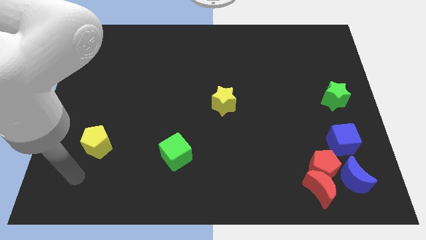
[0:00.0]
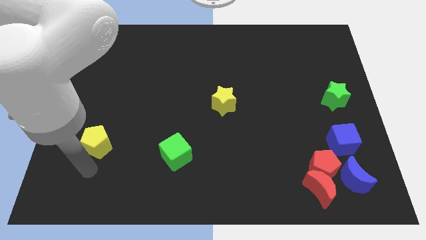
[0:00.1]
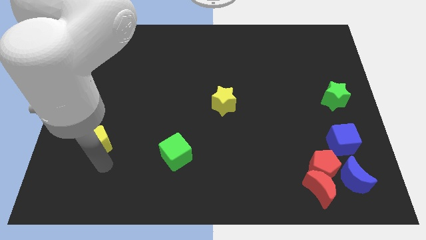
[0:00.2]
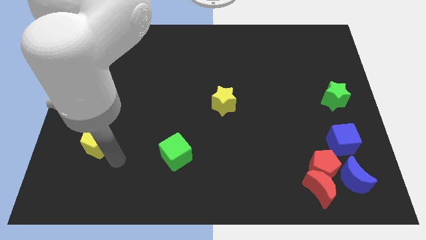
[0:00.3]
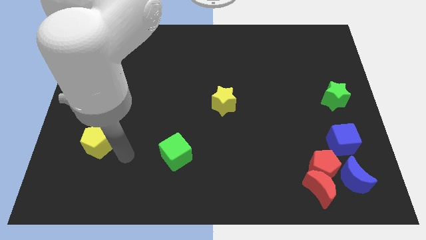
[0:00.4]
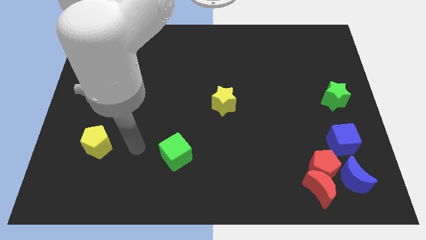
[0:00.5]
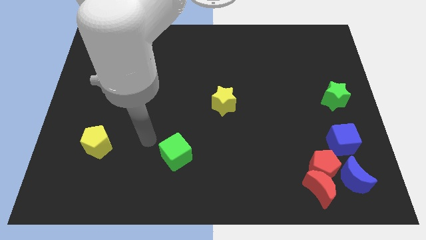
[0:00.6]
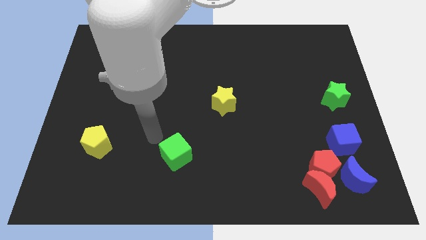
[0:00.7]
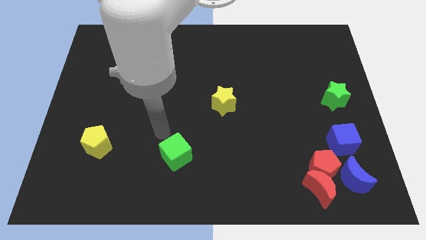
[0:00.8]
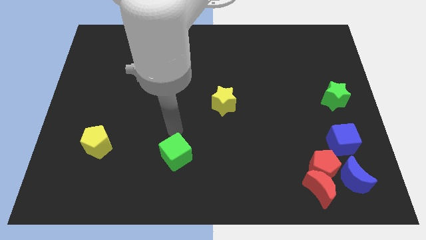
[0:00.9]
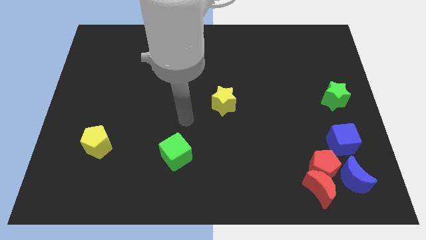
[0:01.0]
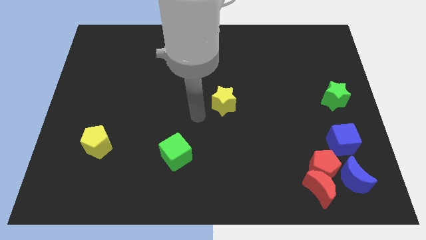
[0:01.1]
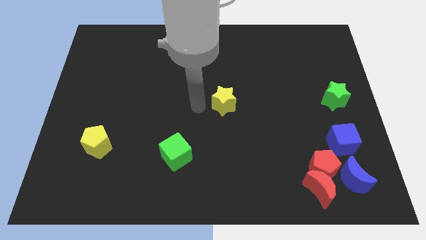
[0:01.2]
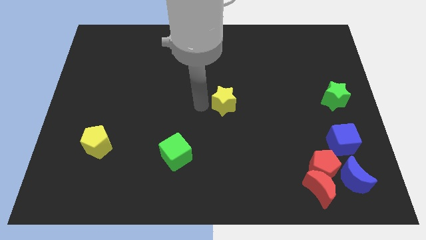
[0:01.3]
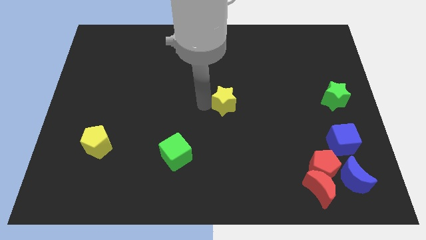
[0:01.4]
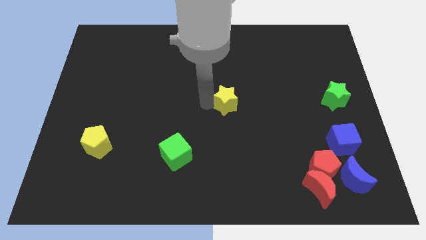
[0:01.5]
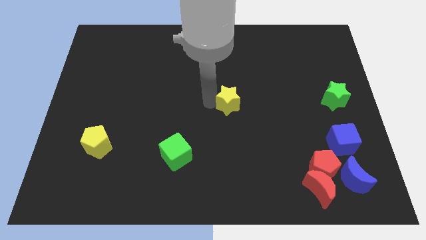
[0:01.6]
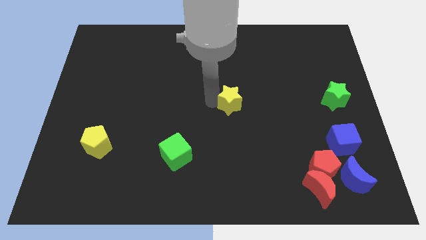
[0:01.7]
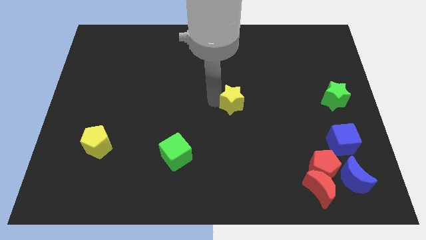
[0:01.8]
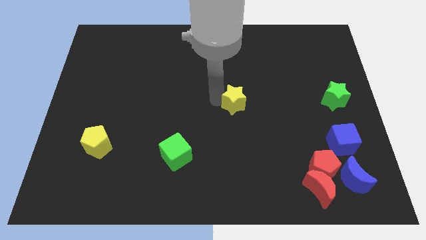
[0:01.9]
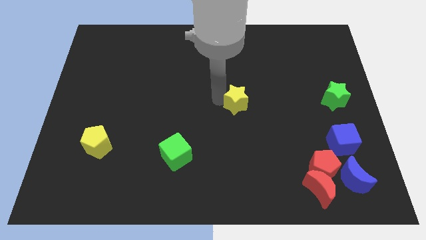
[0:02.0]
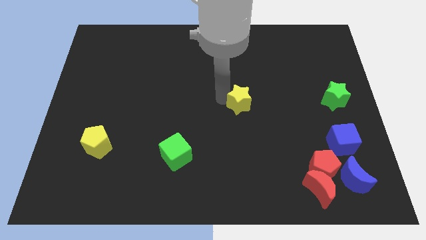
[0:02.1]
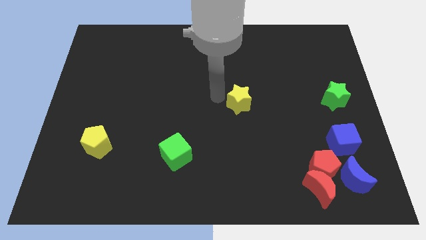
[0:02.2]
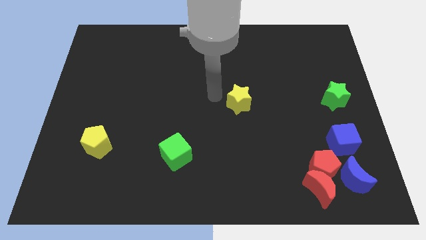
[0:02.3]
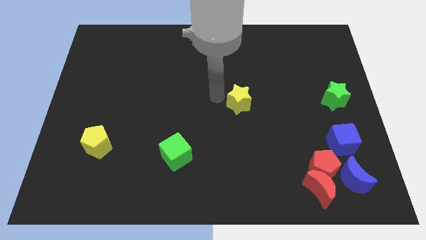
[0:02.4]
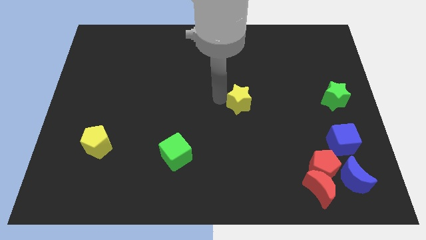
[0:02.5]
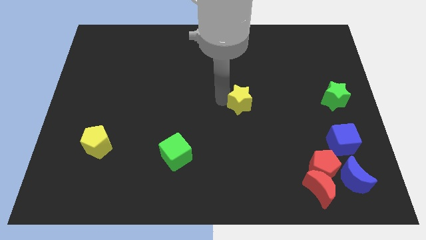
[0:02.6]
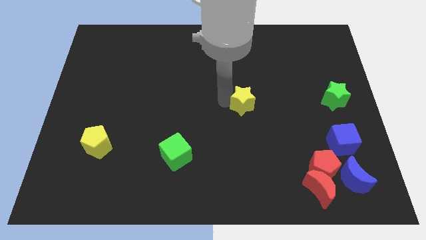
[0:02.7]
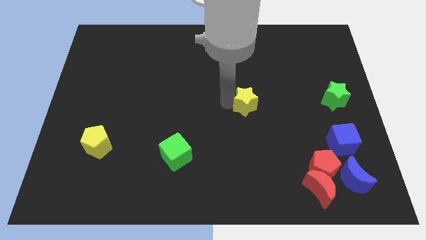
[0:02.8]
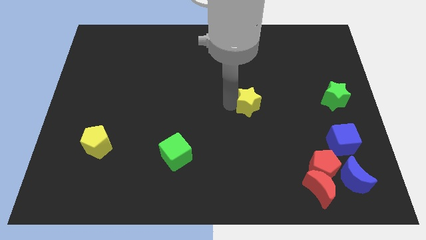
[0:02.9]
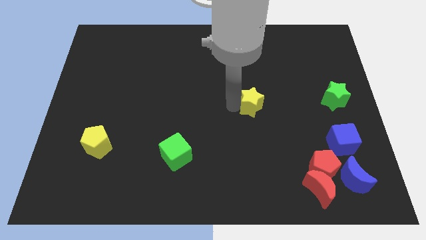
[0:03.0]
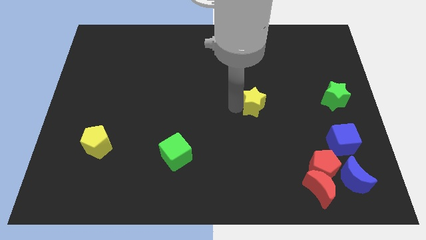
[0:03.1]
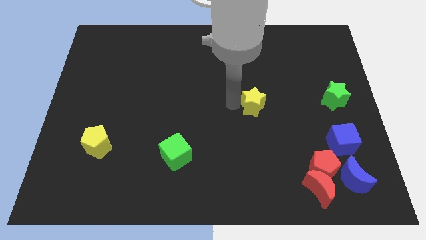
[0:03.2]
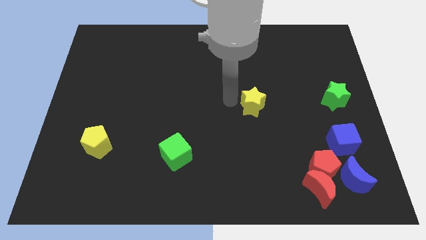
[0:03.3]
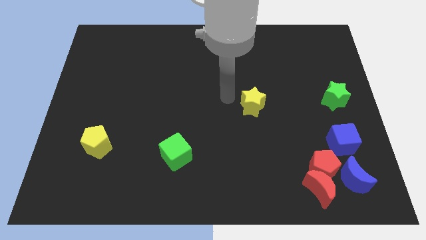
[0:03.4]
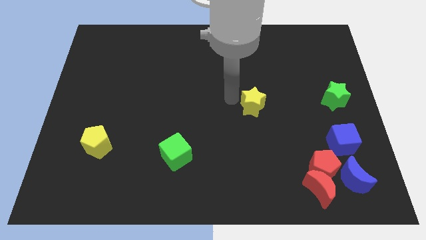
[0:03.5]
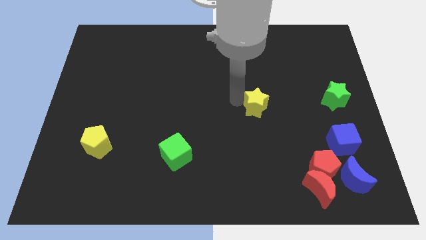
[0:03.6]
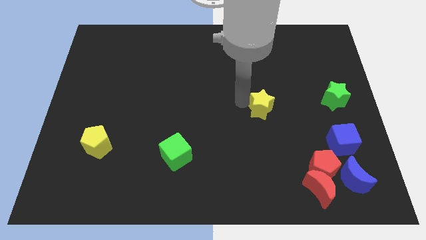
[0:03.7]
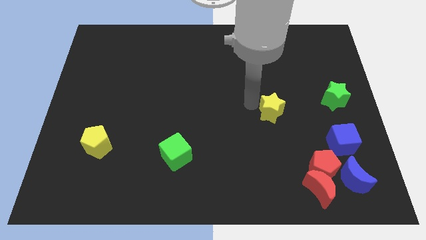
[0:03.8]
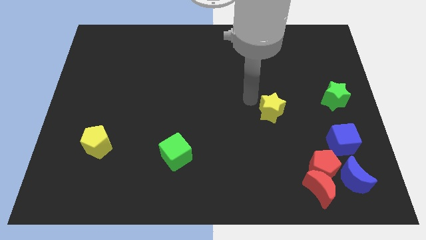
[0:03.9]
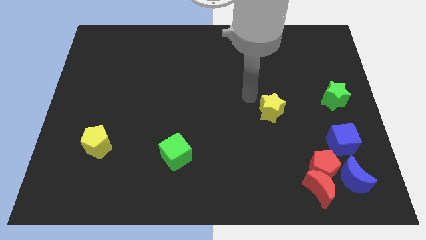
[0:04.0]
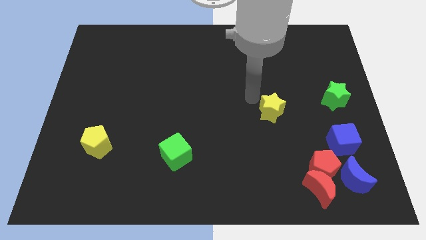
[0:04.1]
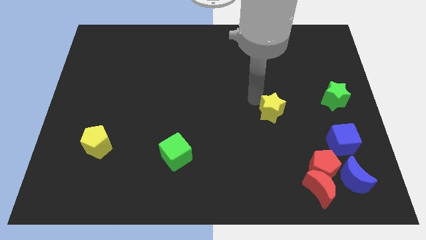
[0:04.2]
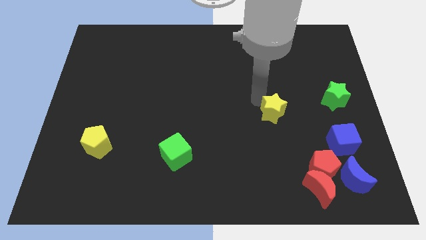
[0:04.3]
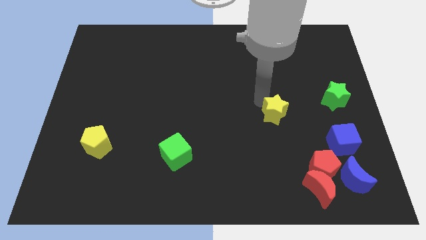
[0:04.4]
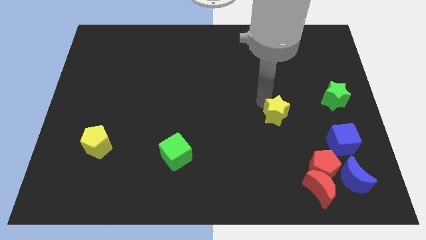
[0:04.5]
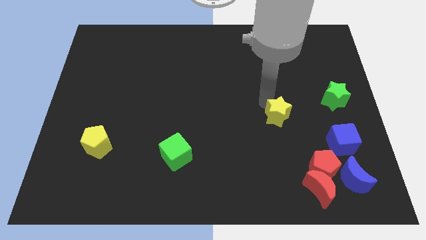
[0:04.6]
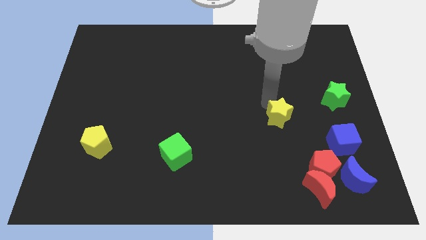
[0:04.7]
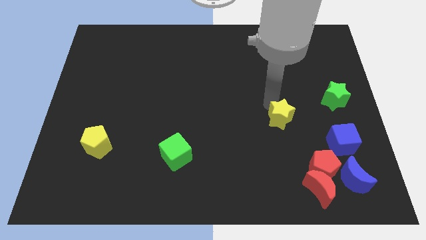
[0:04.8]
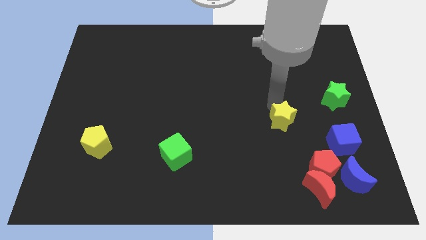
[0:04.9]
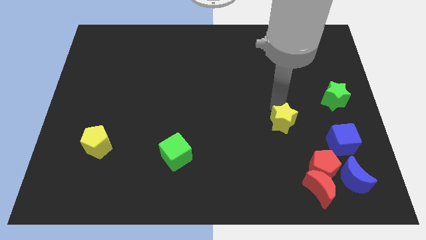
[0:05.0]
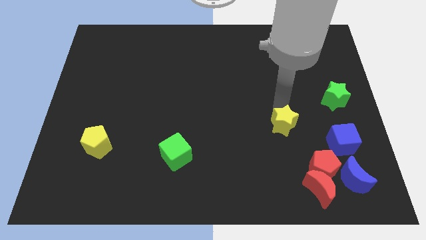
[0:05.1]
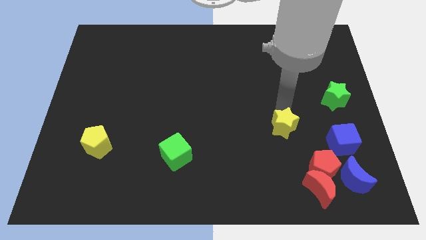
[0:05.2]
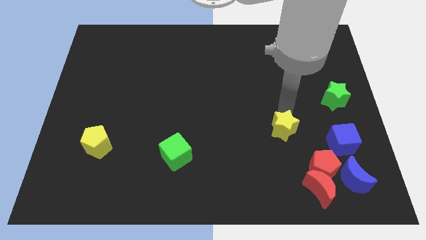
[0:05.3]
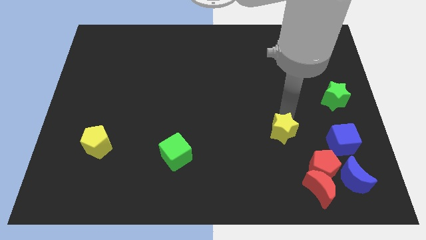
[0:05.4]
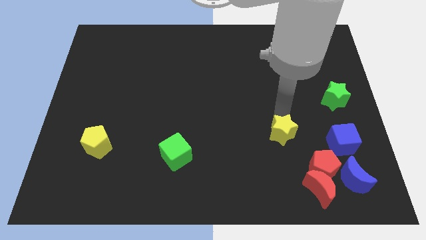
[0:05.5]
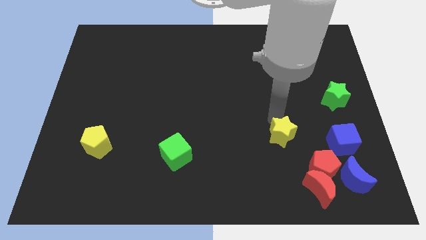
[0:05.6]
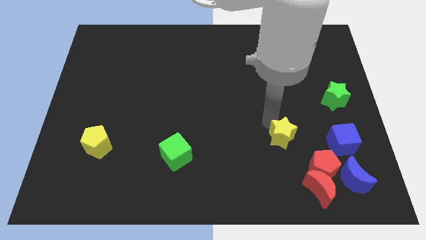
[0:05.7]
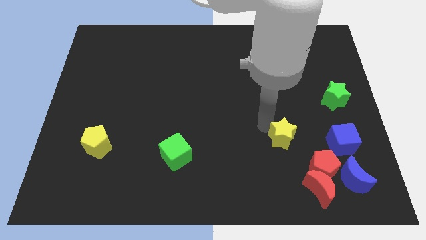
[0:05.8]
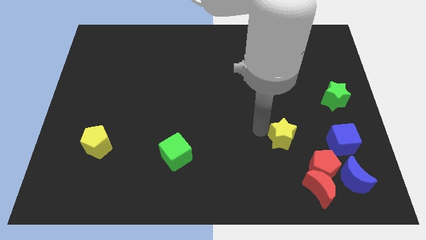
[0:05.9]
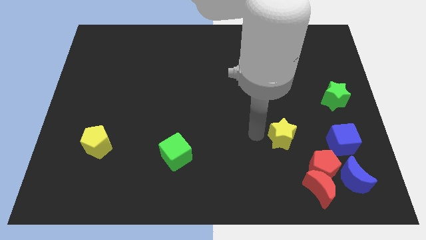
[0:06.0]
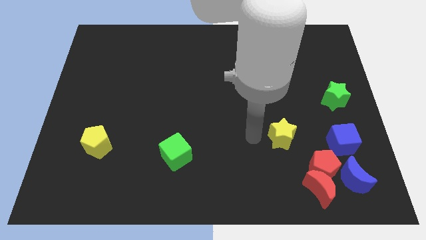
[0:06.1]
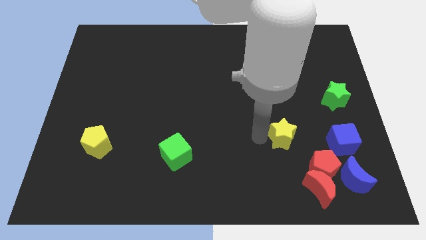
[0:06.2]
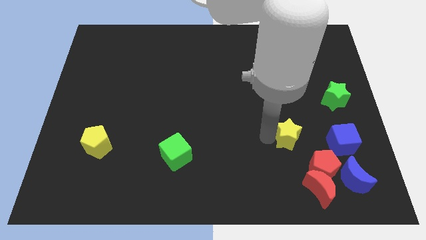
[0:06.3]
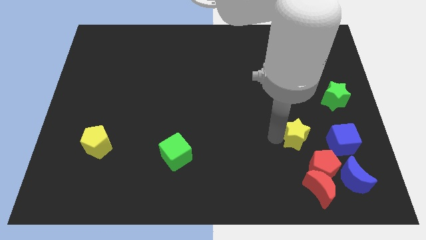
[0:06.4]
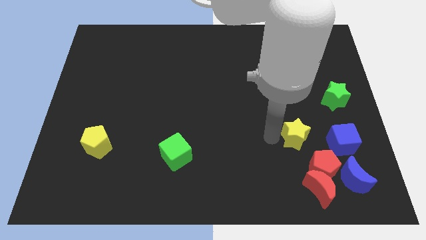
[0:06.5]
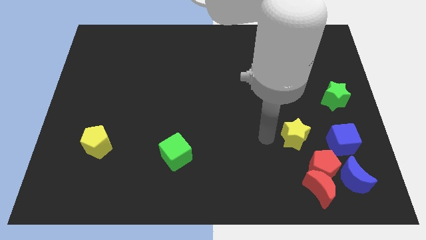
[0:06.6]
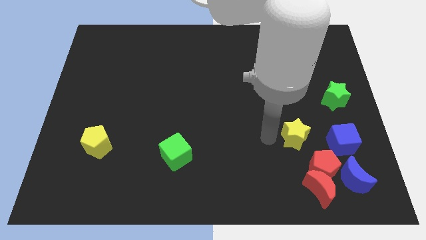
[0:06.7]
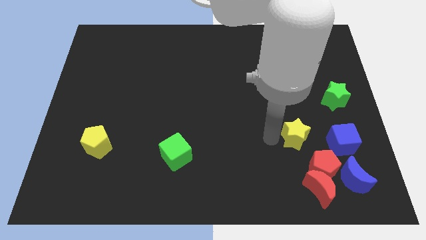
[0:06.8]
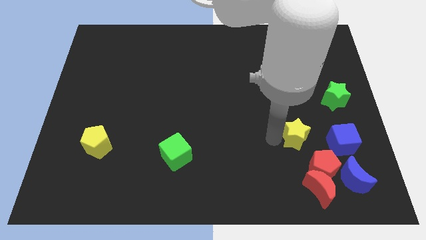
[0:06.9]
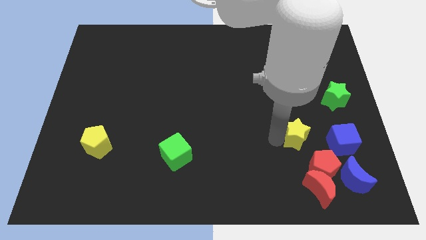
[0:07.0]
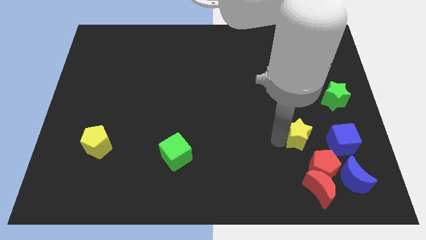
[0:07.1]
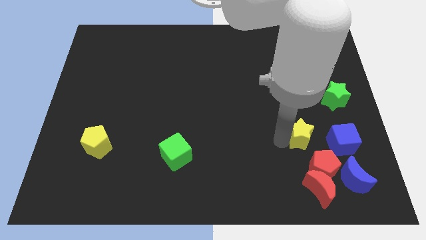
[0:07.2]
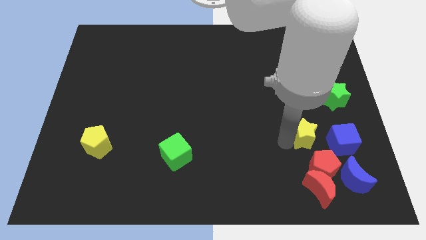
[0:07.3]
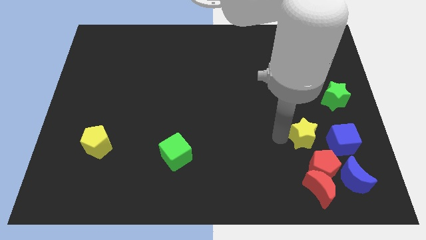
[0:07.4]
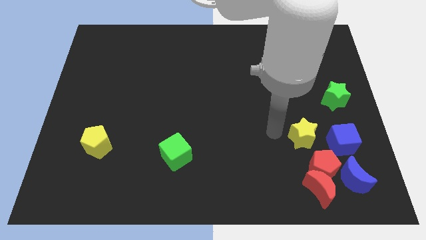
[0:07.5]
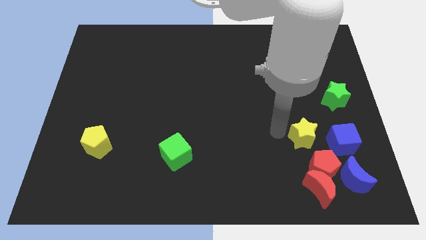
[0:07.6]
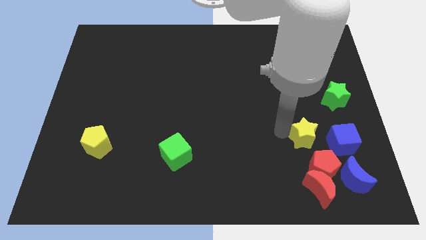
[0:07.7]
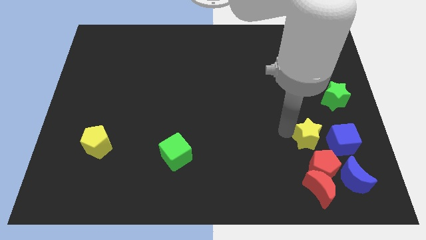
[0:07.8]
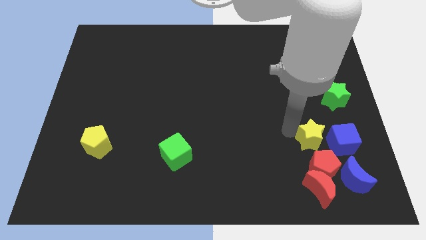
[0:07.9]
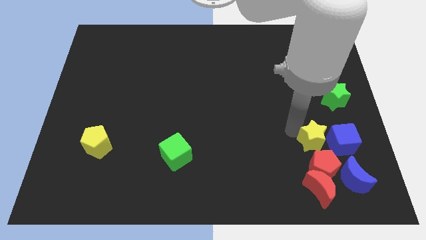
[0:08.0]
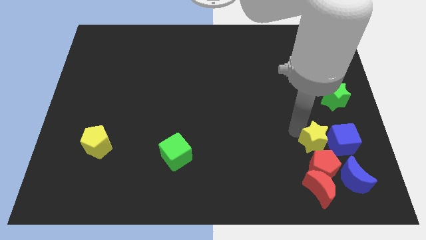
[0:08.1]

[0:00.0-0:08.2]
move the yellow star next to the blue cube
